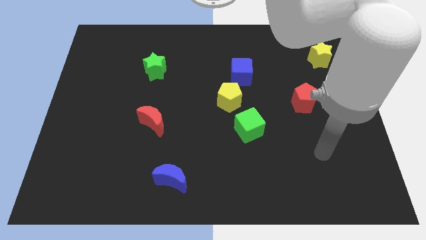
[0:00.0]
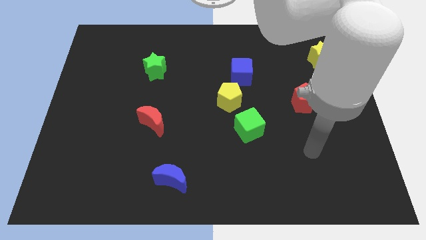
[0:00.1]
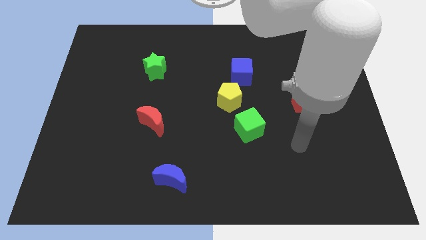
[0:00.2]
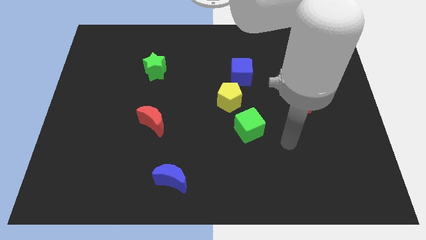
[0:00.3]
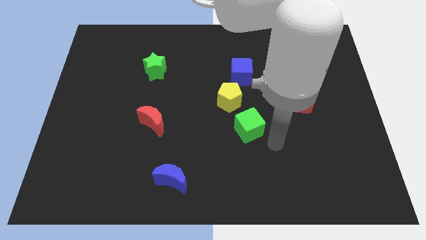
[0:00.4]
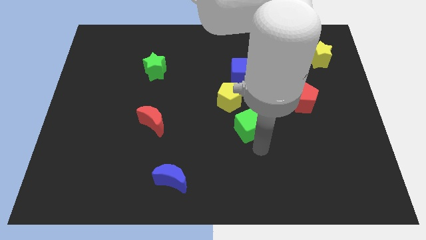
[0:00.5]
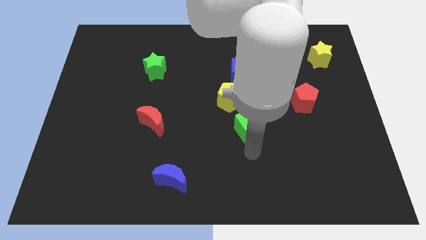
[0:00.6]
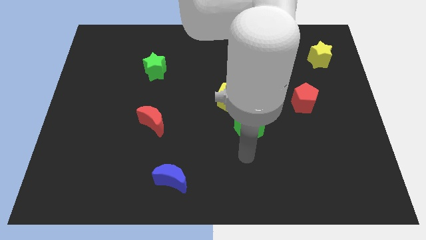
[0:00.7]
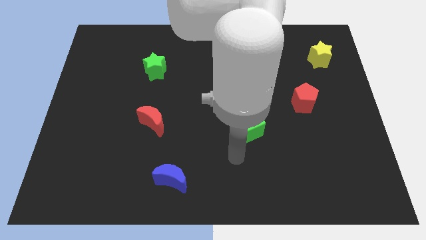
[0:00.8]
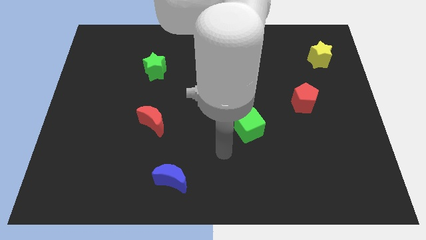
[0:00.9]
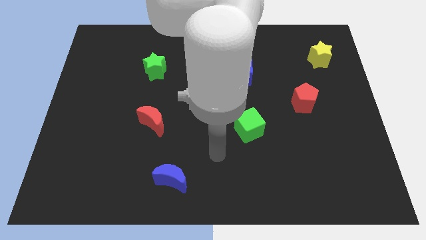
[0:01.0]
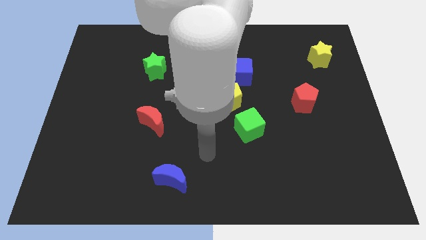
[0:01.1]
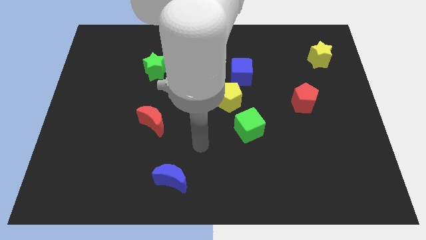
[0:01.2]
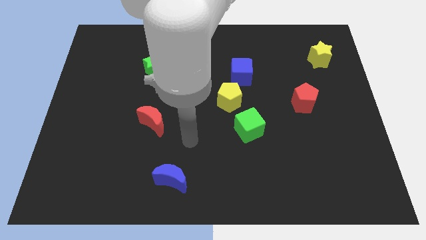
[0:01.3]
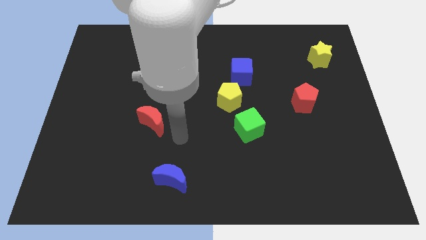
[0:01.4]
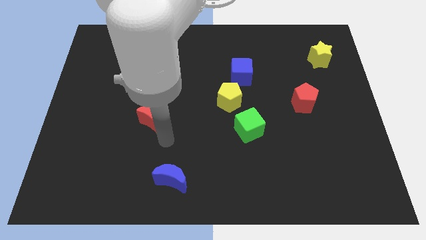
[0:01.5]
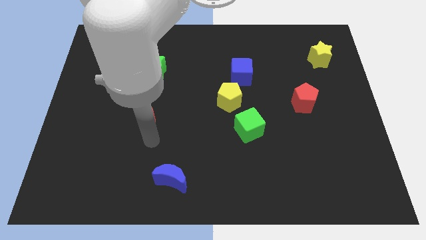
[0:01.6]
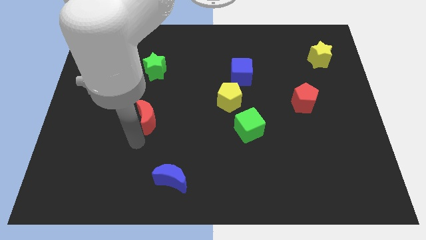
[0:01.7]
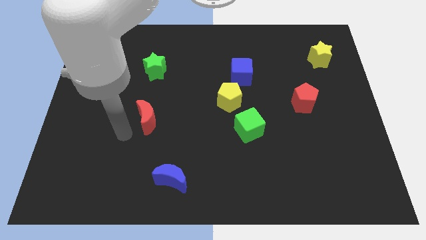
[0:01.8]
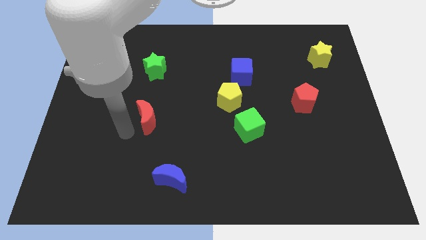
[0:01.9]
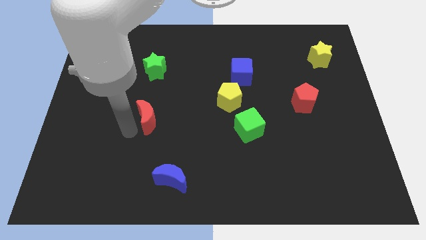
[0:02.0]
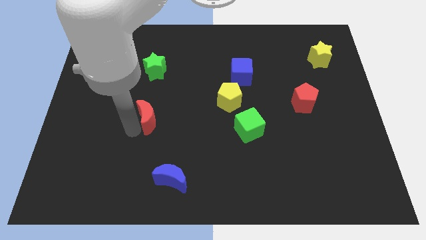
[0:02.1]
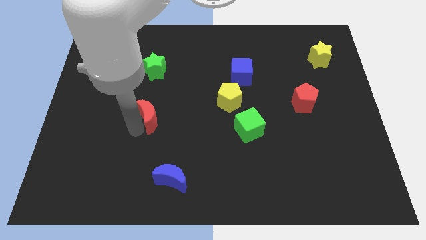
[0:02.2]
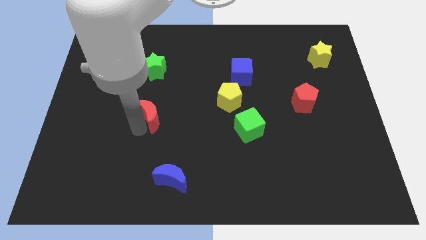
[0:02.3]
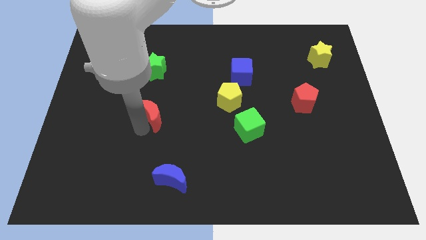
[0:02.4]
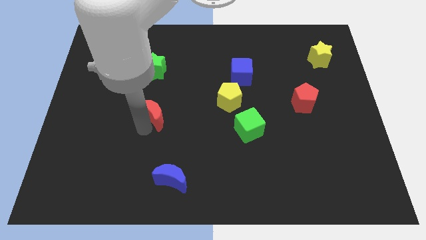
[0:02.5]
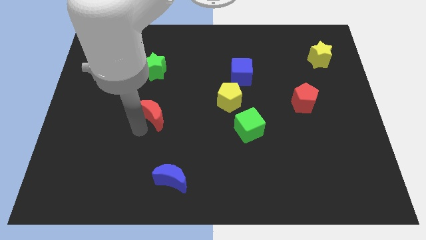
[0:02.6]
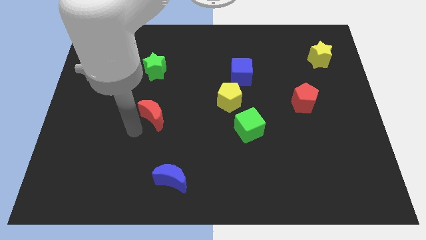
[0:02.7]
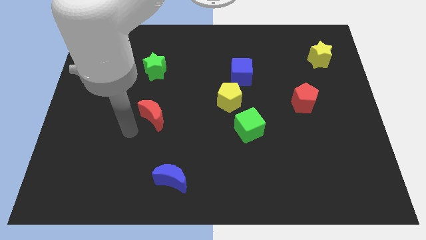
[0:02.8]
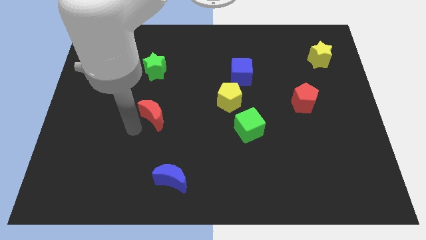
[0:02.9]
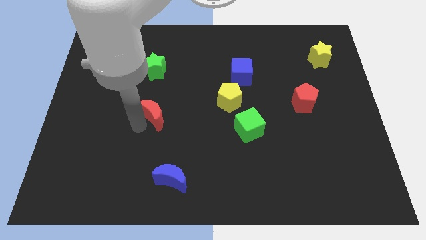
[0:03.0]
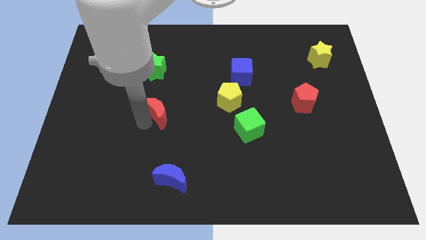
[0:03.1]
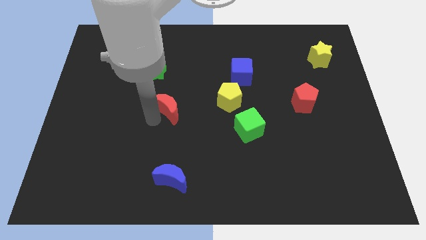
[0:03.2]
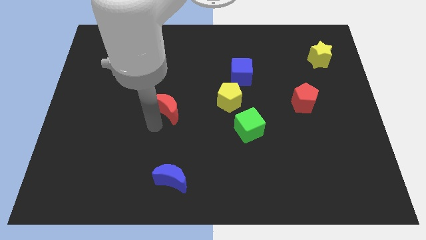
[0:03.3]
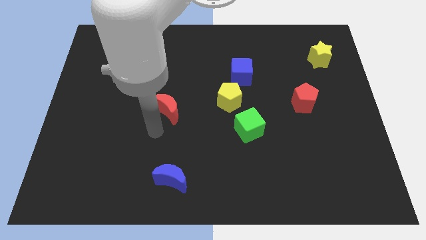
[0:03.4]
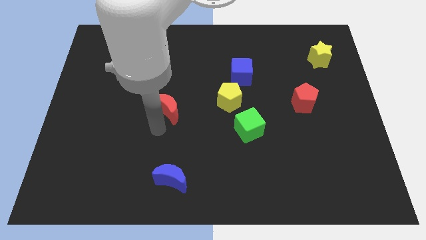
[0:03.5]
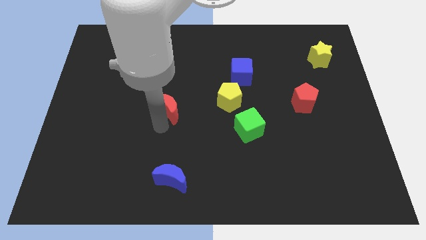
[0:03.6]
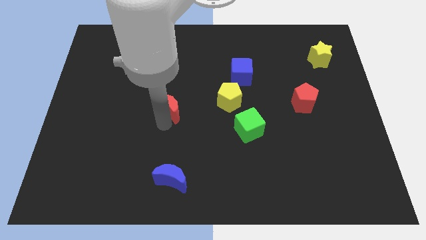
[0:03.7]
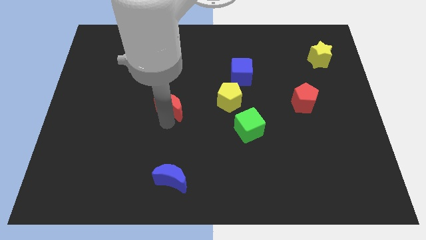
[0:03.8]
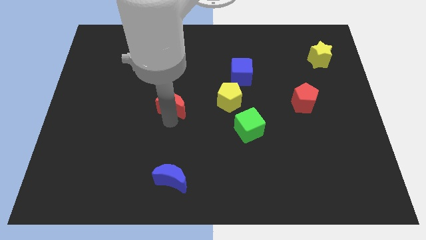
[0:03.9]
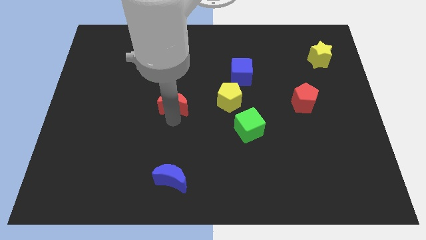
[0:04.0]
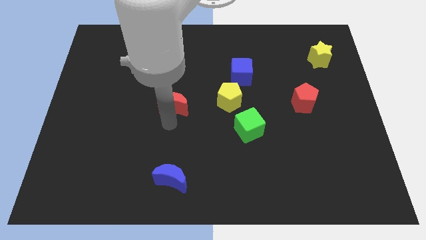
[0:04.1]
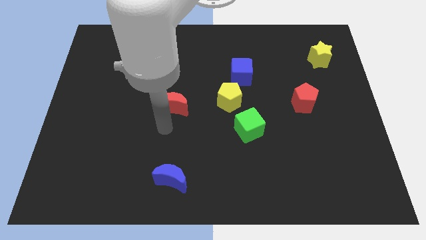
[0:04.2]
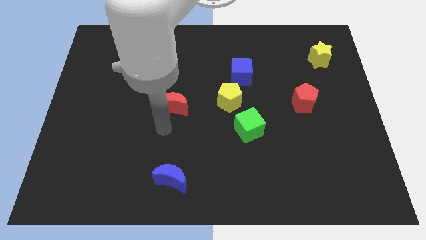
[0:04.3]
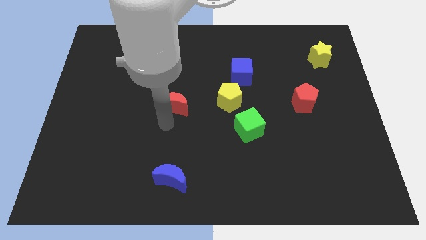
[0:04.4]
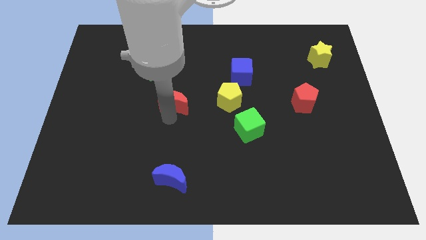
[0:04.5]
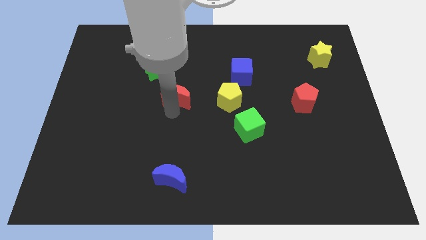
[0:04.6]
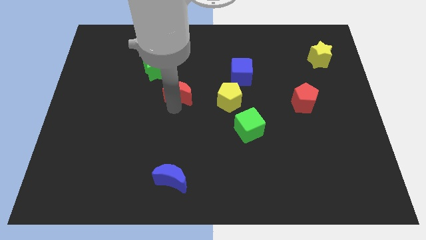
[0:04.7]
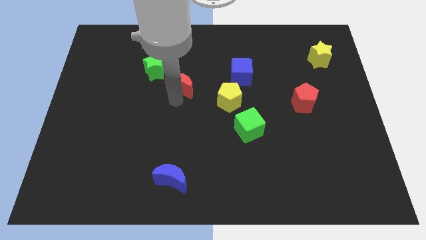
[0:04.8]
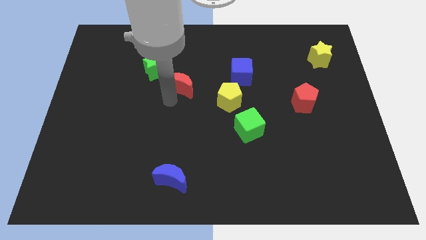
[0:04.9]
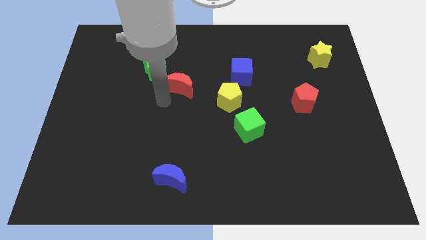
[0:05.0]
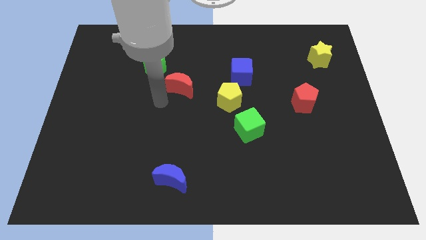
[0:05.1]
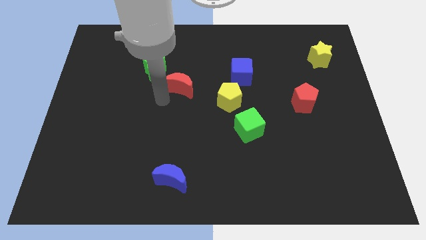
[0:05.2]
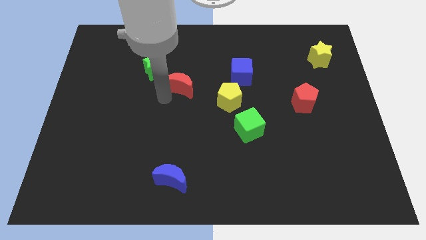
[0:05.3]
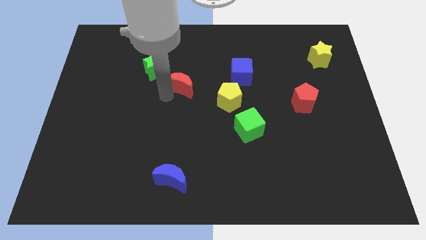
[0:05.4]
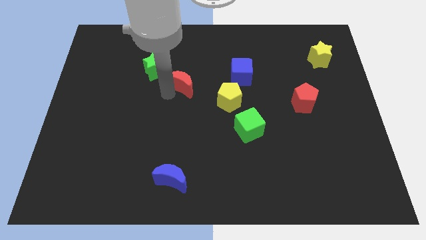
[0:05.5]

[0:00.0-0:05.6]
slide the red moon just left of the blue cube

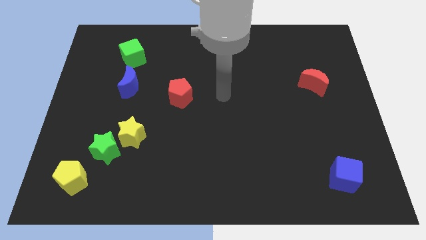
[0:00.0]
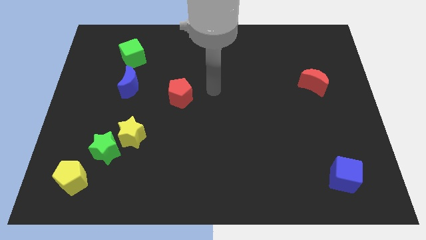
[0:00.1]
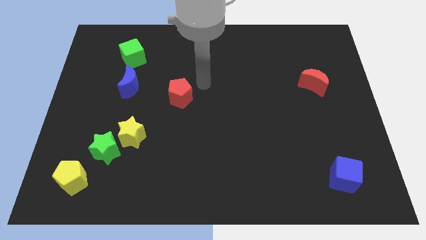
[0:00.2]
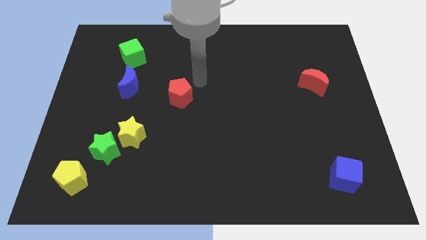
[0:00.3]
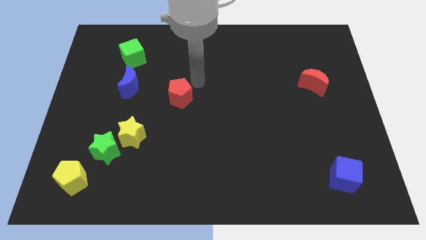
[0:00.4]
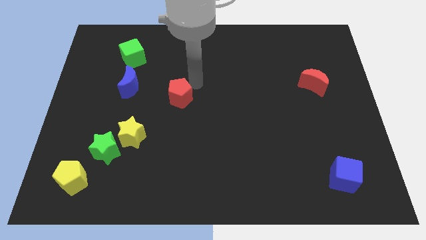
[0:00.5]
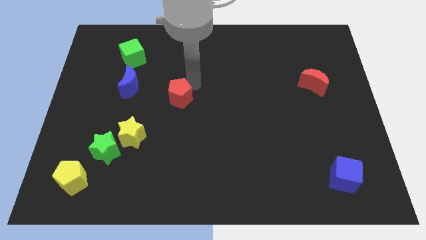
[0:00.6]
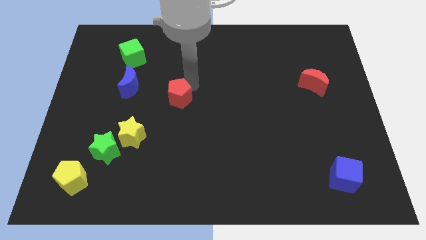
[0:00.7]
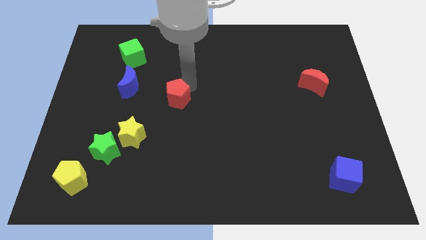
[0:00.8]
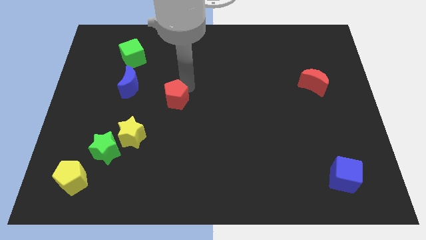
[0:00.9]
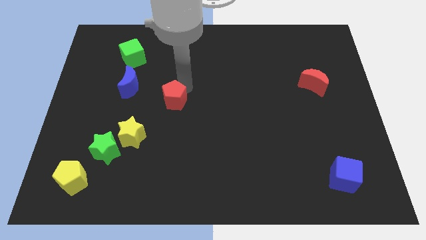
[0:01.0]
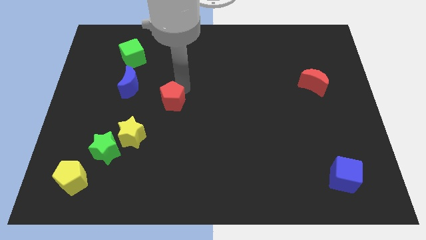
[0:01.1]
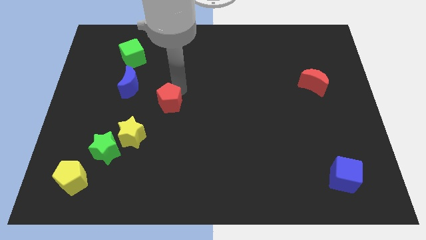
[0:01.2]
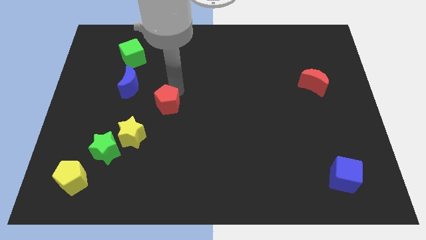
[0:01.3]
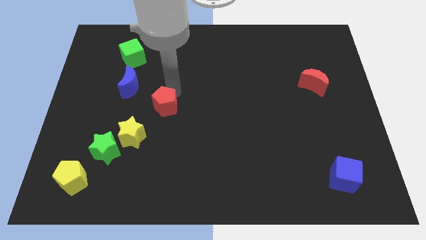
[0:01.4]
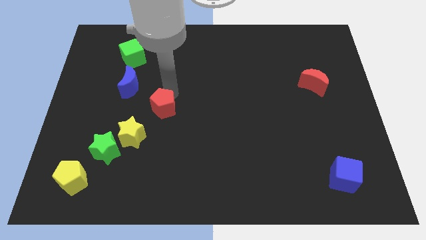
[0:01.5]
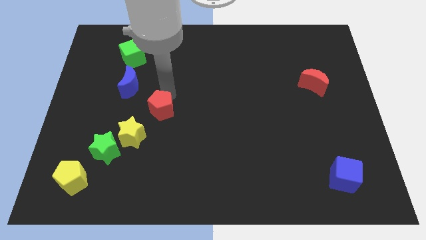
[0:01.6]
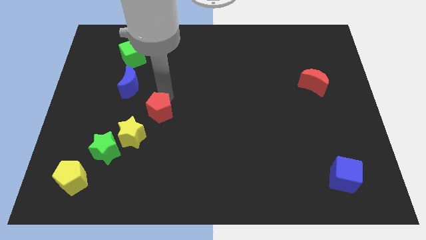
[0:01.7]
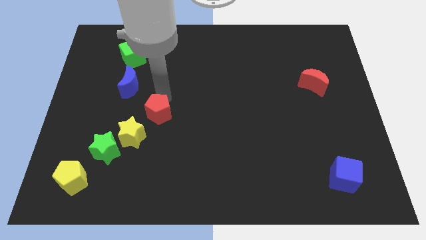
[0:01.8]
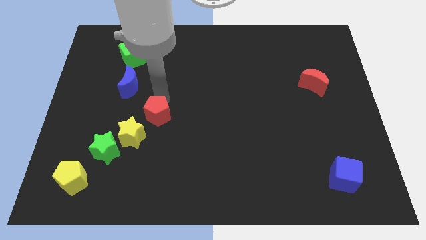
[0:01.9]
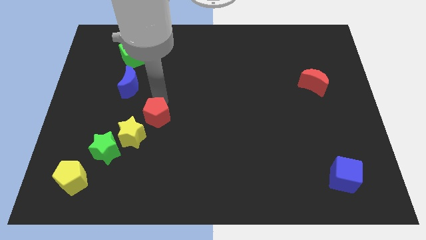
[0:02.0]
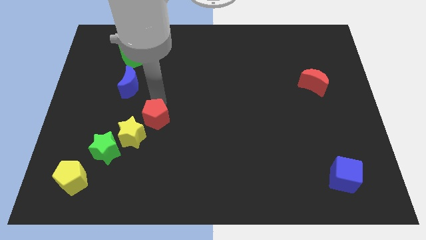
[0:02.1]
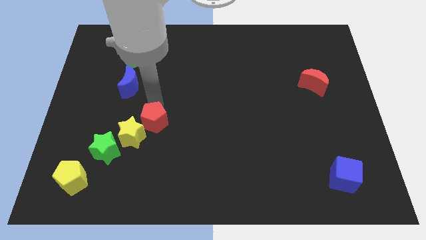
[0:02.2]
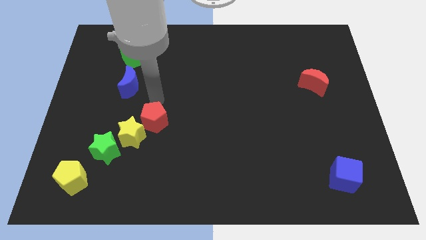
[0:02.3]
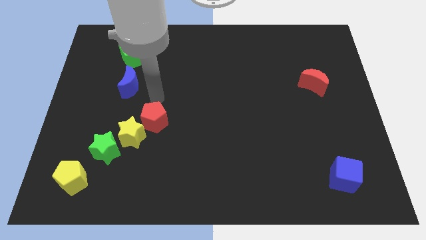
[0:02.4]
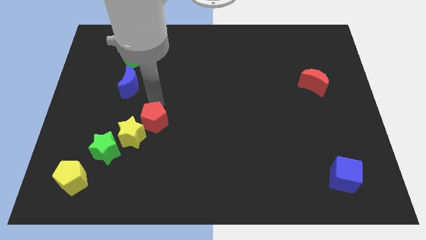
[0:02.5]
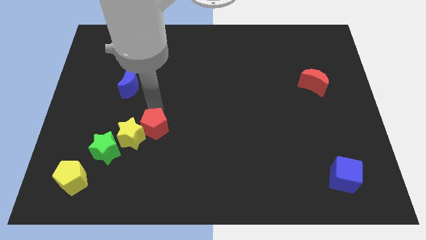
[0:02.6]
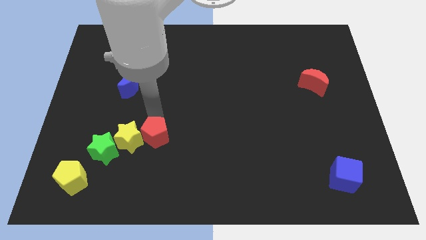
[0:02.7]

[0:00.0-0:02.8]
slide the red pentagon to the bottom right side of the yellow star
